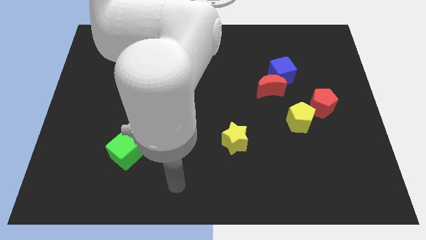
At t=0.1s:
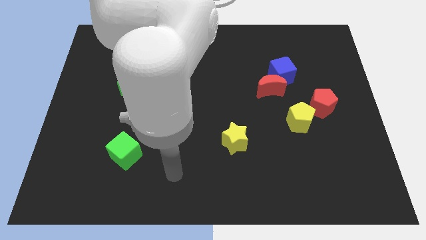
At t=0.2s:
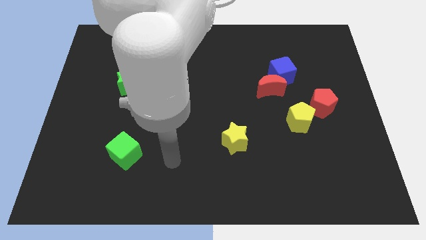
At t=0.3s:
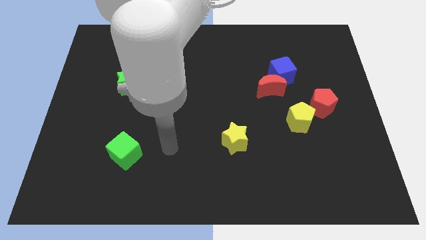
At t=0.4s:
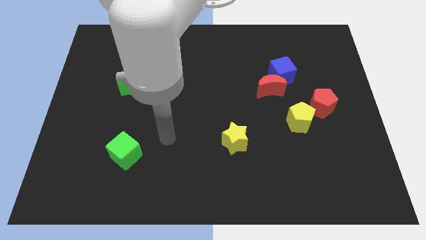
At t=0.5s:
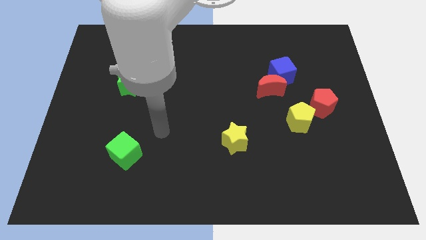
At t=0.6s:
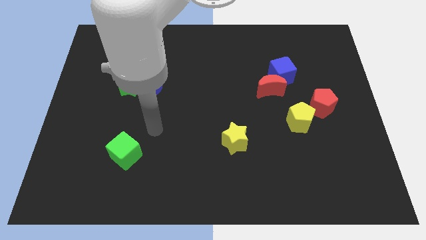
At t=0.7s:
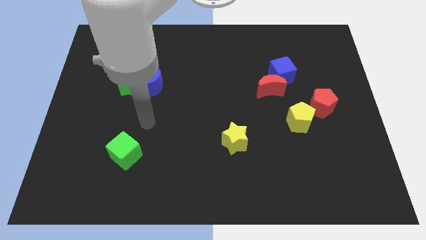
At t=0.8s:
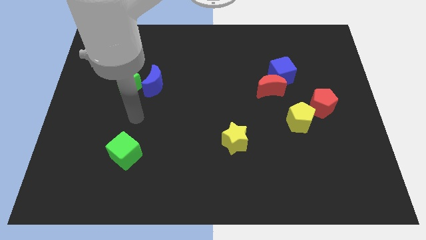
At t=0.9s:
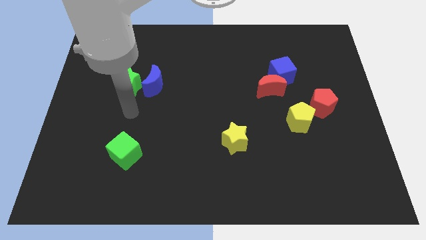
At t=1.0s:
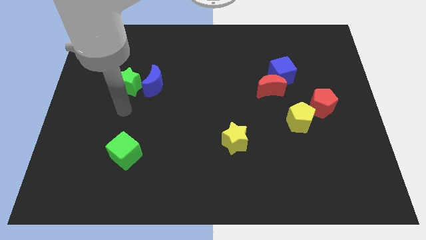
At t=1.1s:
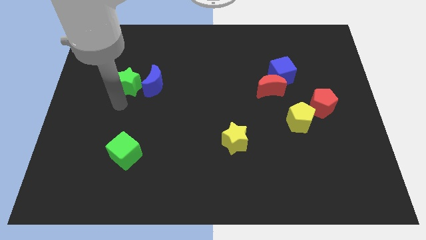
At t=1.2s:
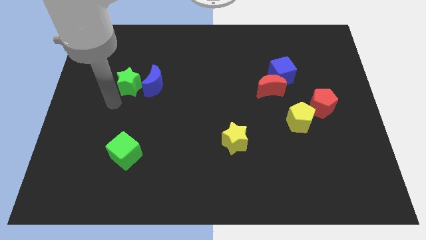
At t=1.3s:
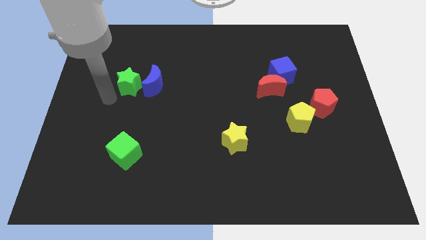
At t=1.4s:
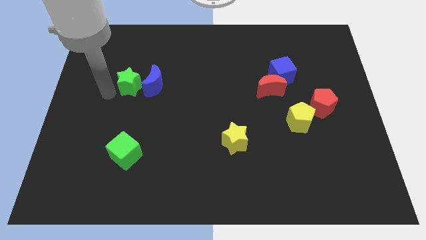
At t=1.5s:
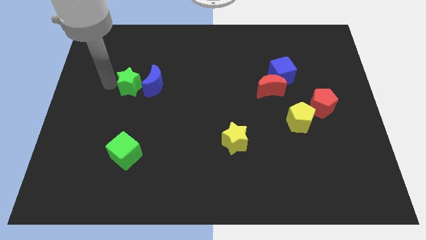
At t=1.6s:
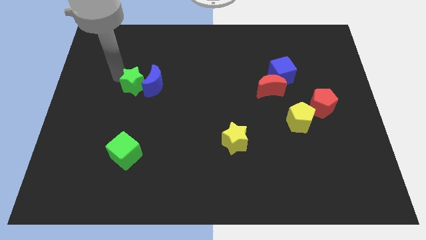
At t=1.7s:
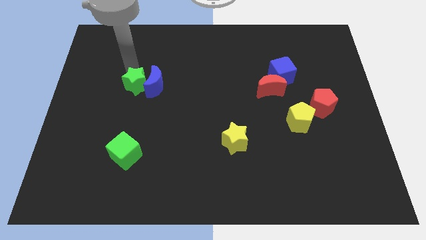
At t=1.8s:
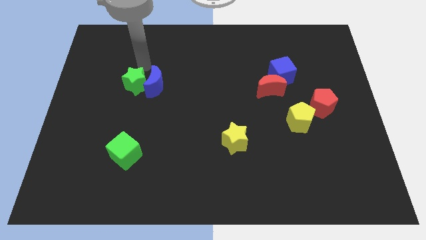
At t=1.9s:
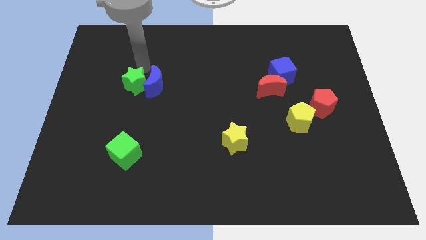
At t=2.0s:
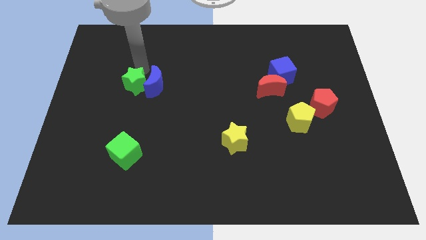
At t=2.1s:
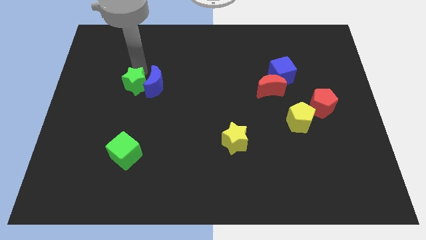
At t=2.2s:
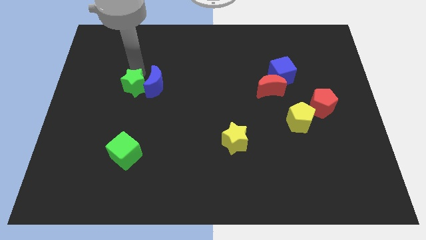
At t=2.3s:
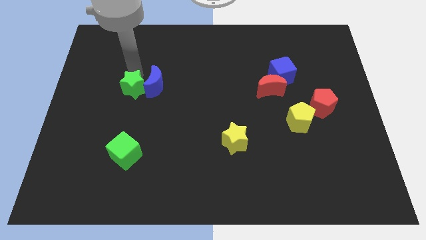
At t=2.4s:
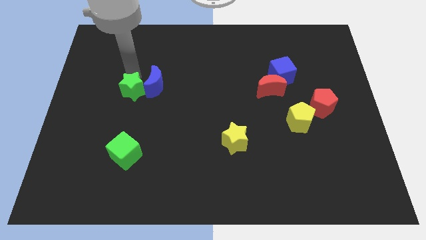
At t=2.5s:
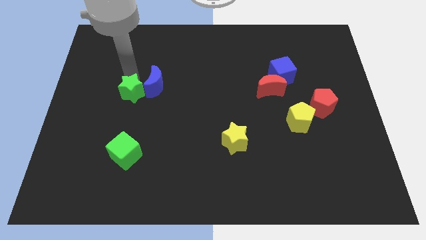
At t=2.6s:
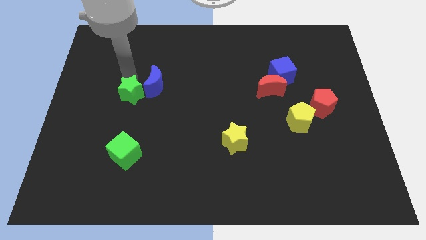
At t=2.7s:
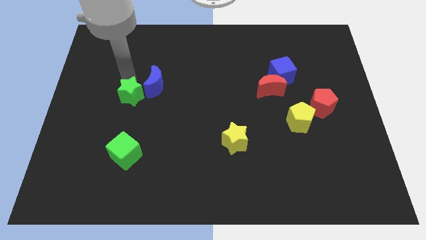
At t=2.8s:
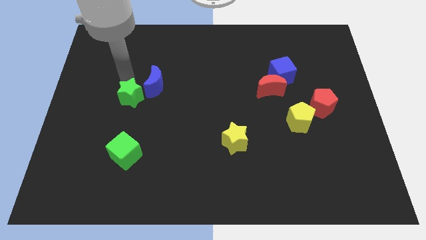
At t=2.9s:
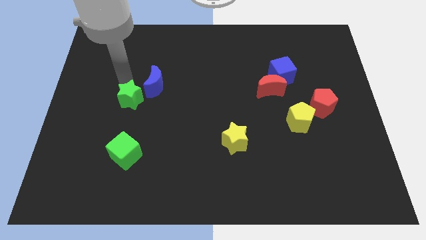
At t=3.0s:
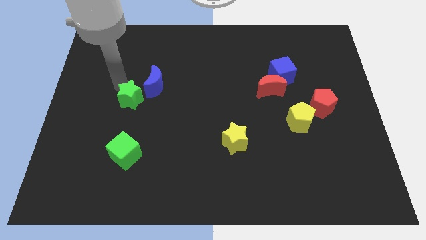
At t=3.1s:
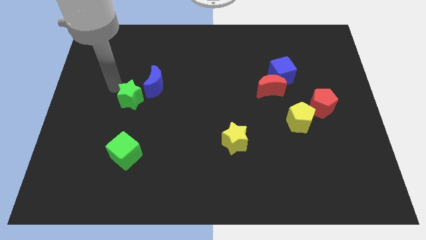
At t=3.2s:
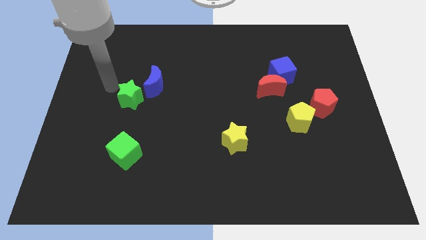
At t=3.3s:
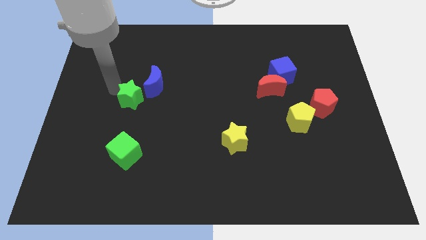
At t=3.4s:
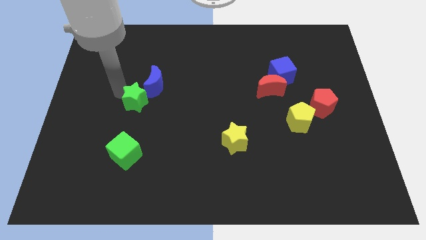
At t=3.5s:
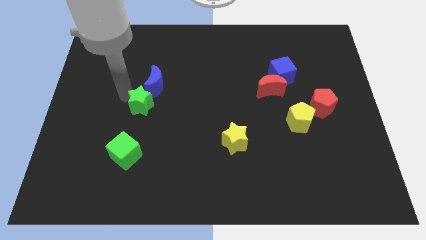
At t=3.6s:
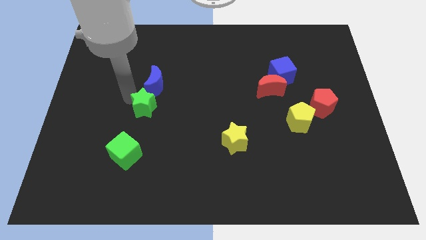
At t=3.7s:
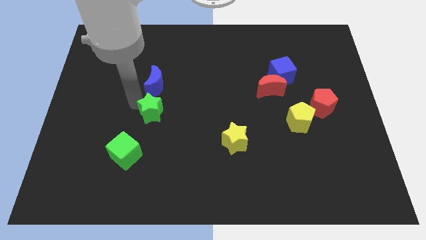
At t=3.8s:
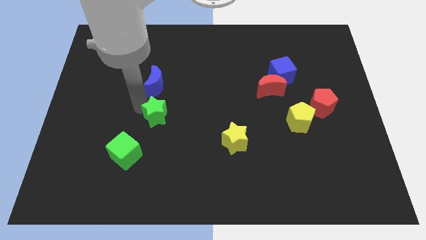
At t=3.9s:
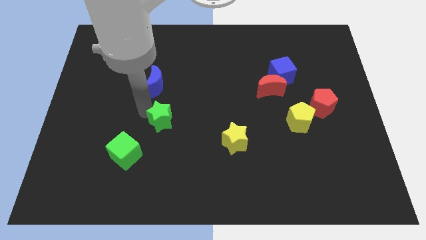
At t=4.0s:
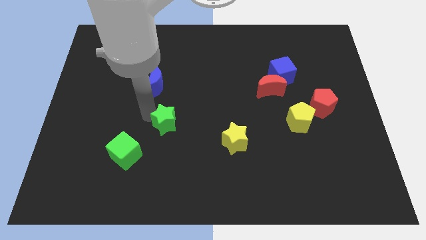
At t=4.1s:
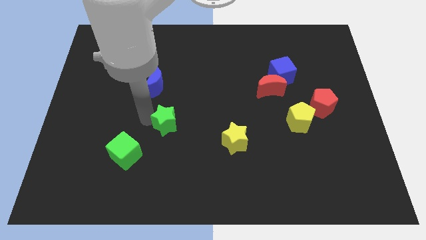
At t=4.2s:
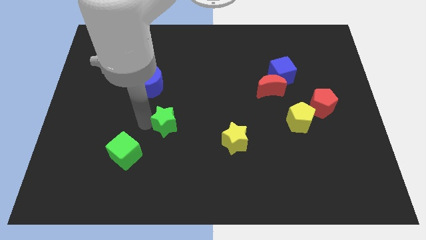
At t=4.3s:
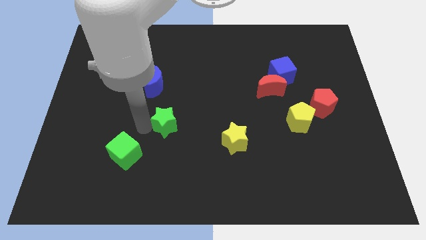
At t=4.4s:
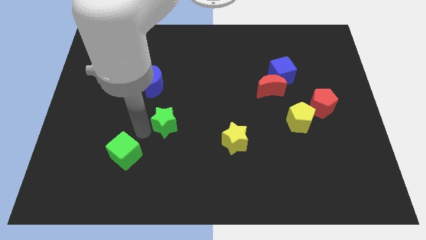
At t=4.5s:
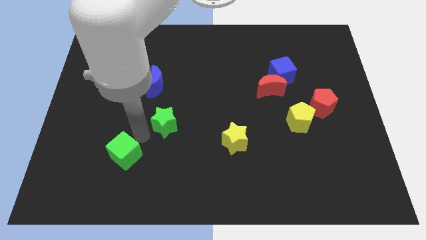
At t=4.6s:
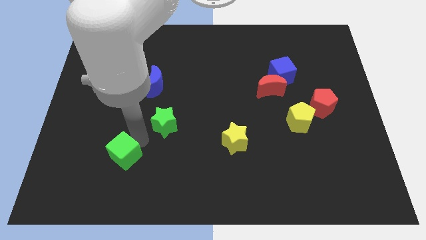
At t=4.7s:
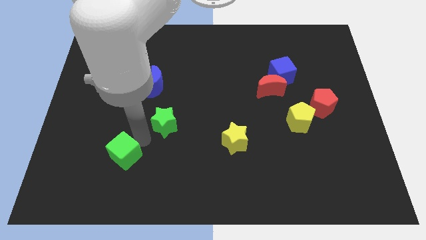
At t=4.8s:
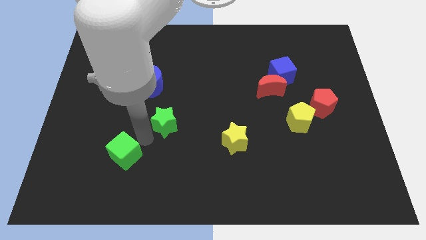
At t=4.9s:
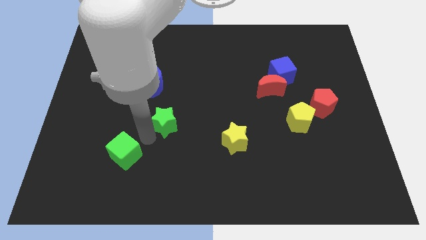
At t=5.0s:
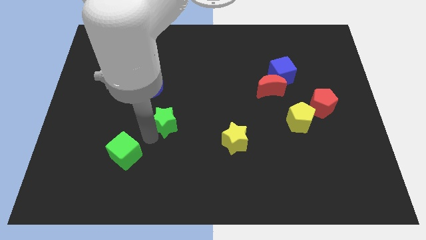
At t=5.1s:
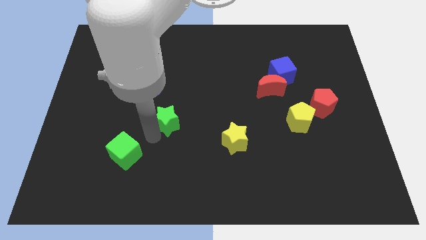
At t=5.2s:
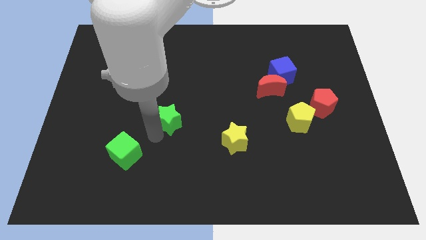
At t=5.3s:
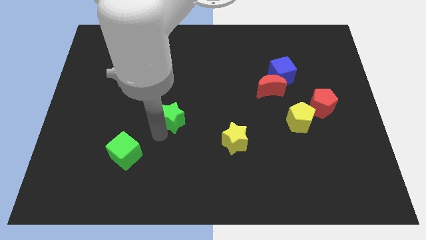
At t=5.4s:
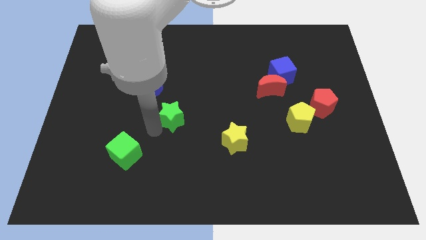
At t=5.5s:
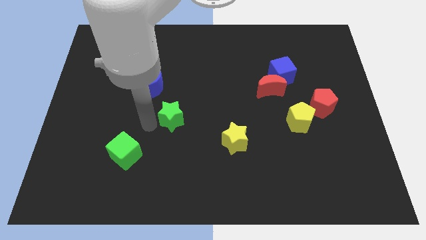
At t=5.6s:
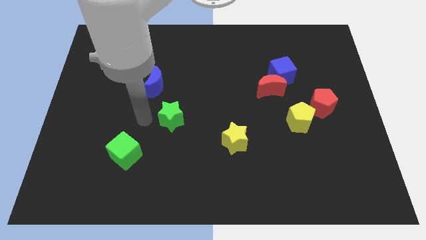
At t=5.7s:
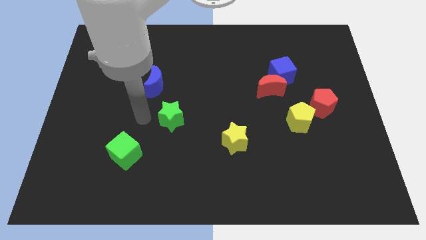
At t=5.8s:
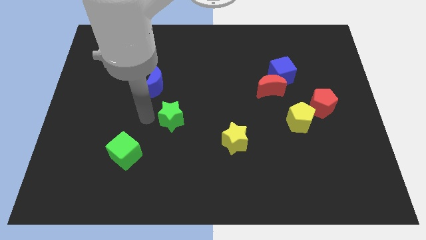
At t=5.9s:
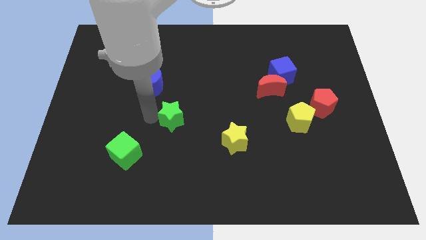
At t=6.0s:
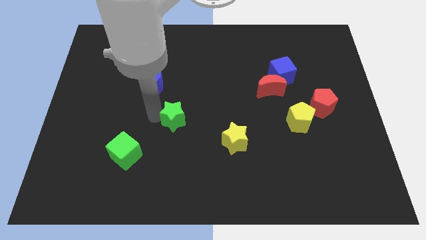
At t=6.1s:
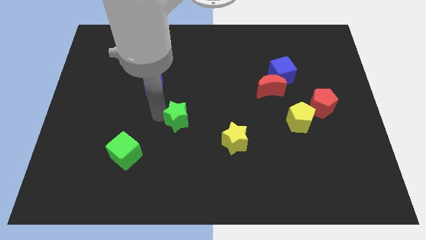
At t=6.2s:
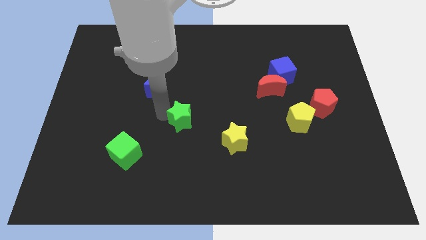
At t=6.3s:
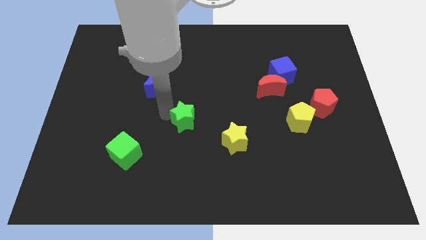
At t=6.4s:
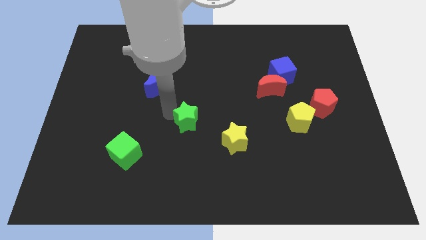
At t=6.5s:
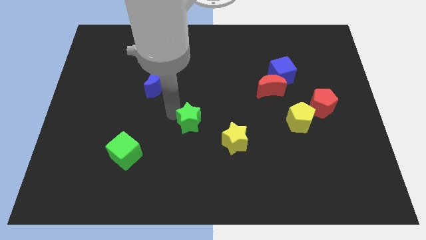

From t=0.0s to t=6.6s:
slide the green star to the top left of the yellow star

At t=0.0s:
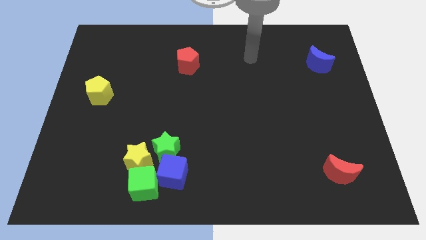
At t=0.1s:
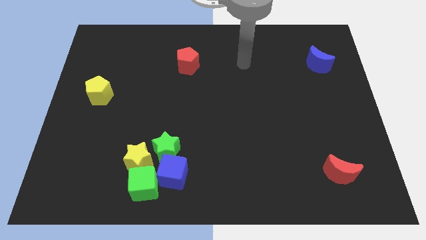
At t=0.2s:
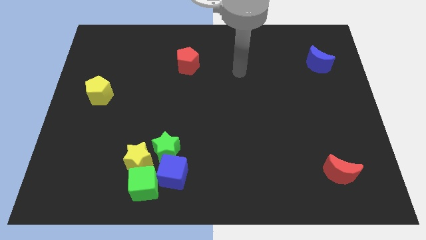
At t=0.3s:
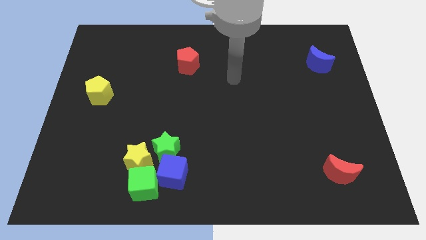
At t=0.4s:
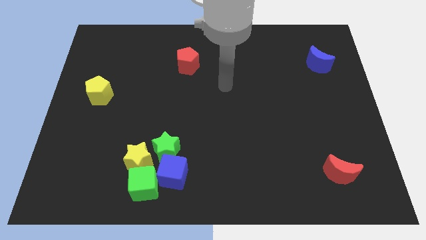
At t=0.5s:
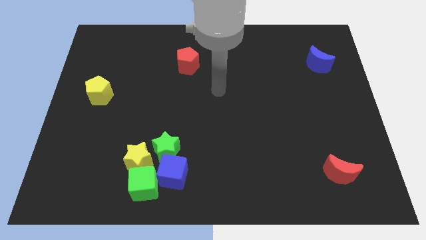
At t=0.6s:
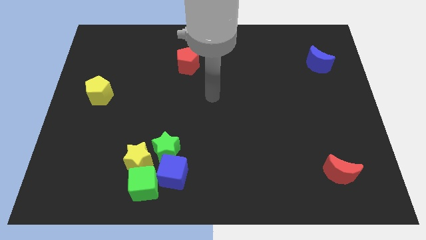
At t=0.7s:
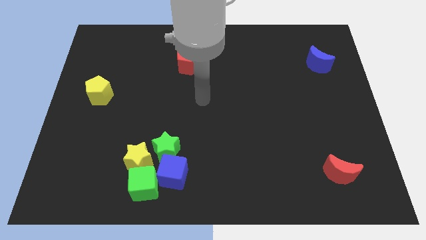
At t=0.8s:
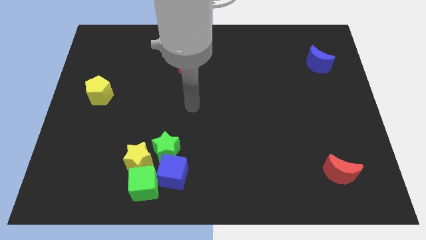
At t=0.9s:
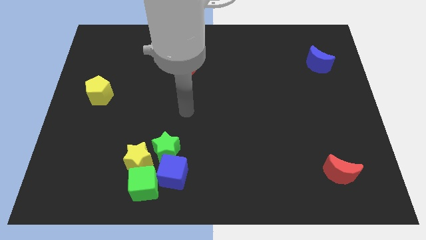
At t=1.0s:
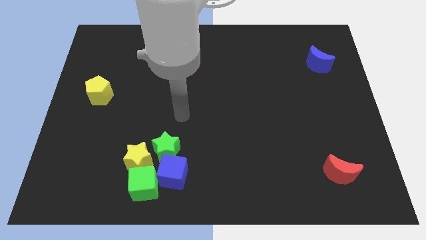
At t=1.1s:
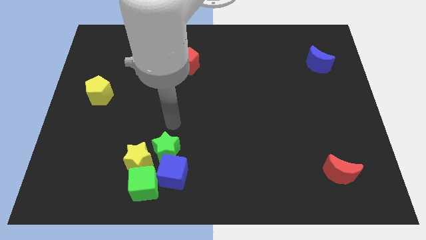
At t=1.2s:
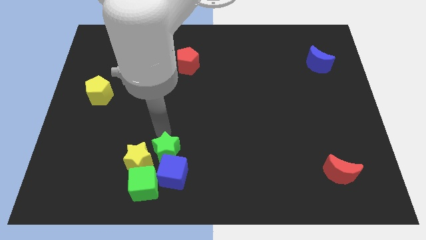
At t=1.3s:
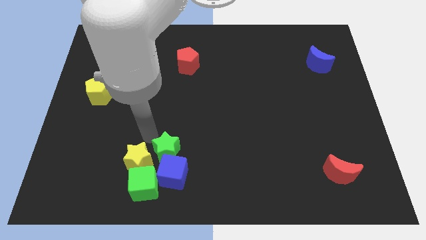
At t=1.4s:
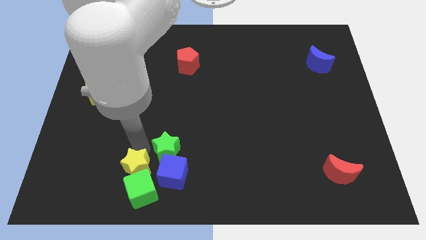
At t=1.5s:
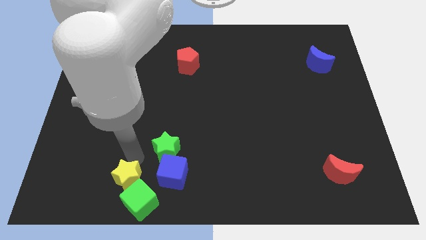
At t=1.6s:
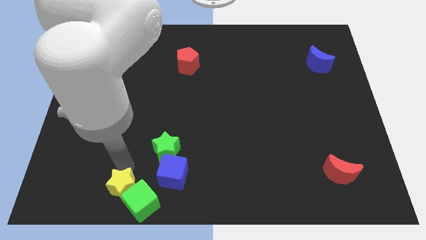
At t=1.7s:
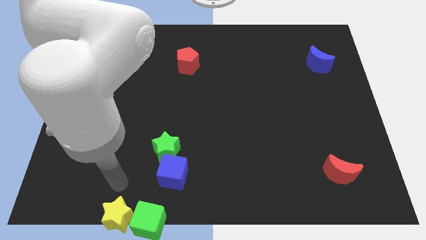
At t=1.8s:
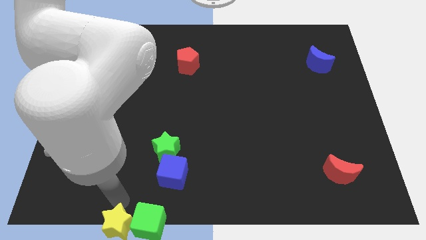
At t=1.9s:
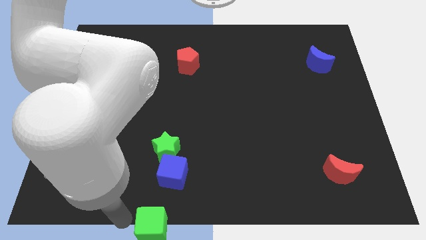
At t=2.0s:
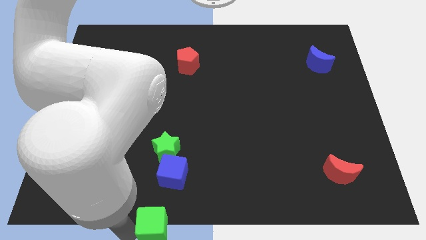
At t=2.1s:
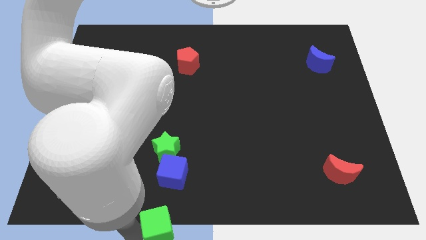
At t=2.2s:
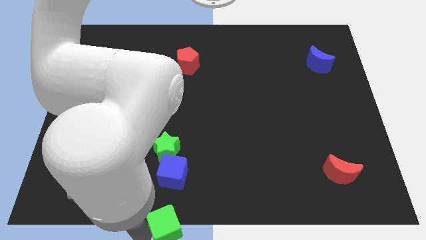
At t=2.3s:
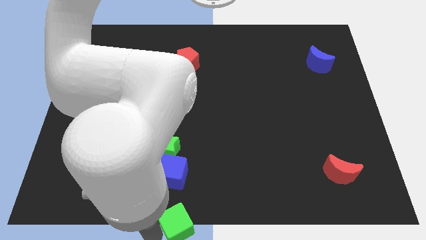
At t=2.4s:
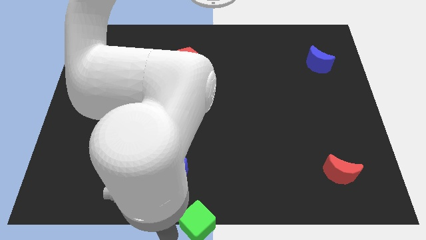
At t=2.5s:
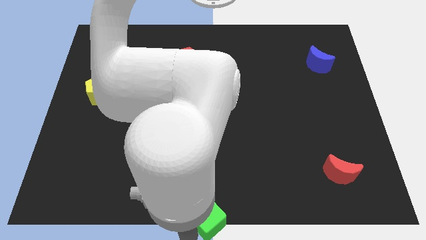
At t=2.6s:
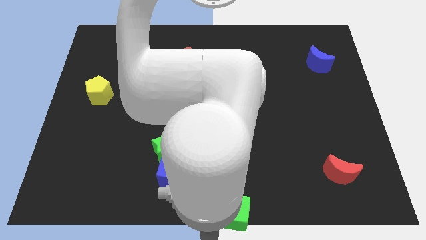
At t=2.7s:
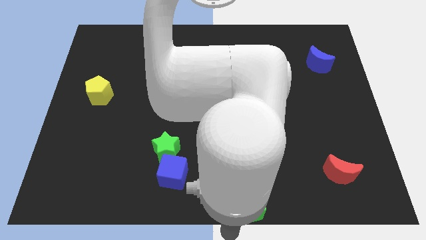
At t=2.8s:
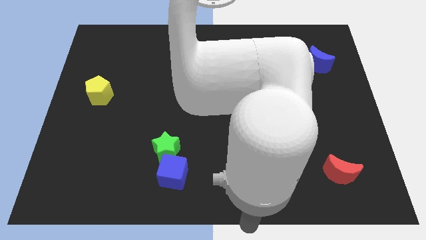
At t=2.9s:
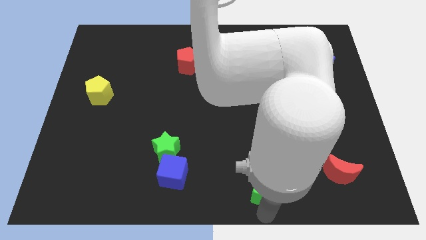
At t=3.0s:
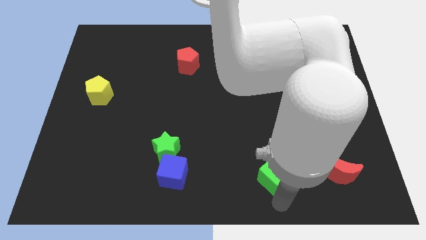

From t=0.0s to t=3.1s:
slide the green cube left of the red moon
